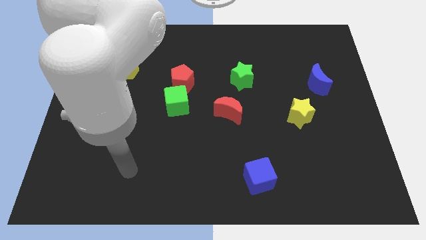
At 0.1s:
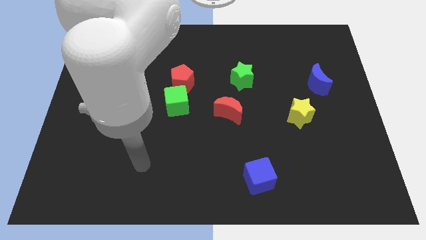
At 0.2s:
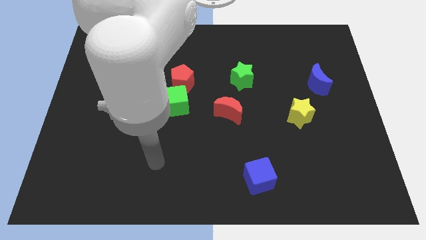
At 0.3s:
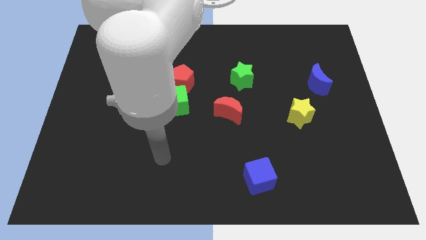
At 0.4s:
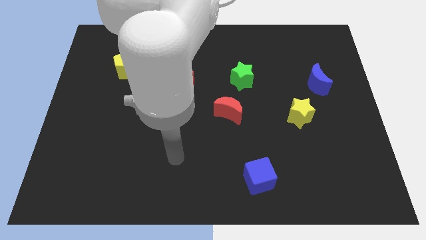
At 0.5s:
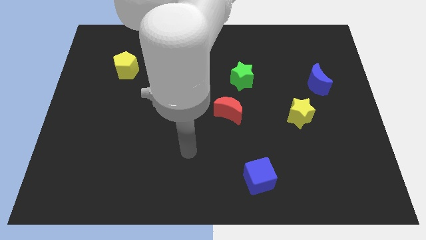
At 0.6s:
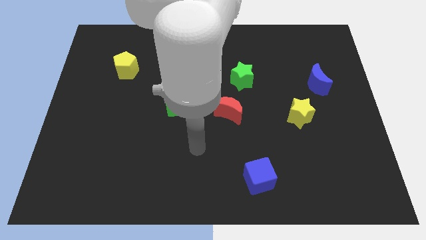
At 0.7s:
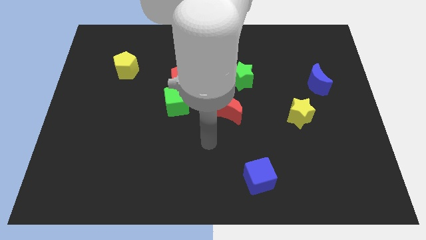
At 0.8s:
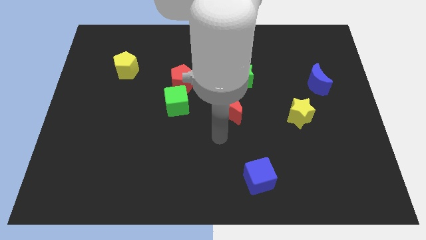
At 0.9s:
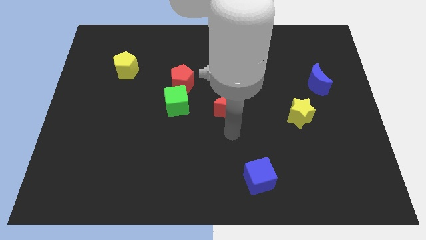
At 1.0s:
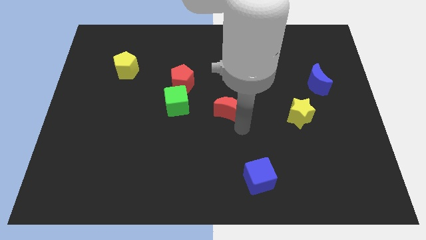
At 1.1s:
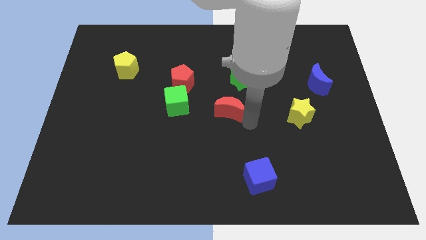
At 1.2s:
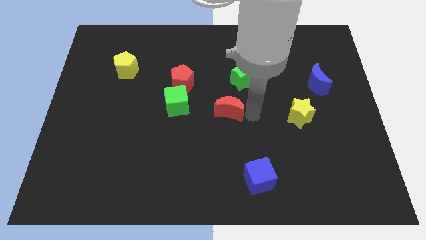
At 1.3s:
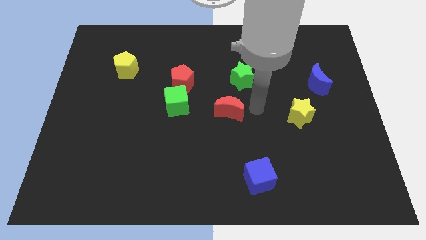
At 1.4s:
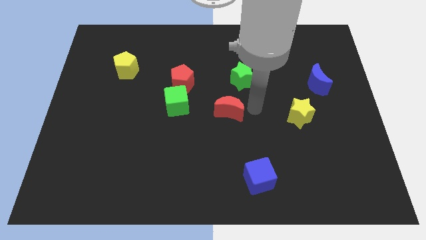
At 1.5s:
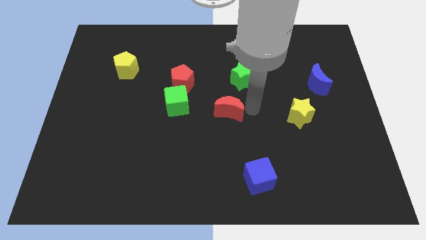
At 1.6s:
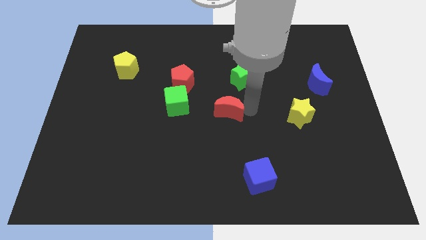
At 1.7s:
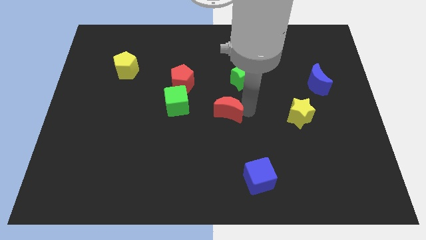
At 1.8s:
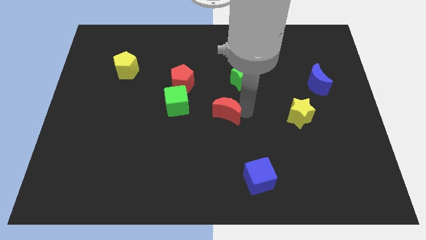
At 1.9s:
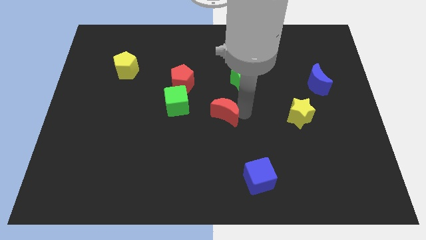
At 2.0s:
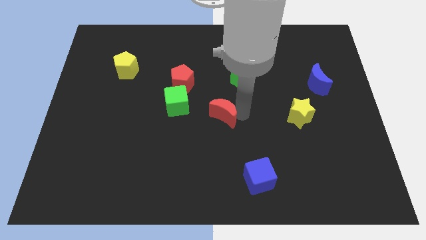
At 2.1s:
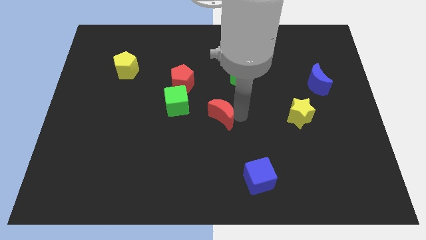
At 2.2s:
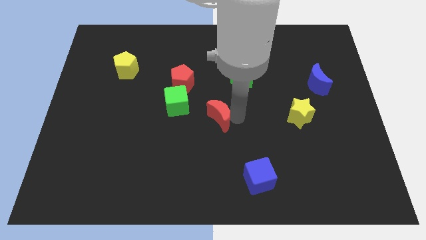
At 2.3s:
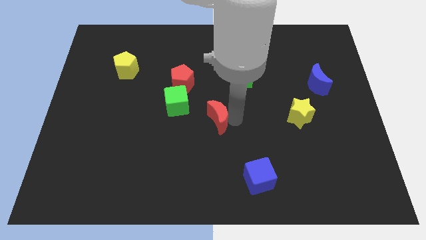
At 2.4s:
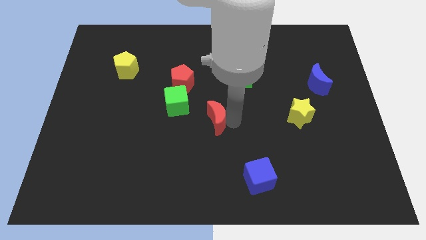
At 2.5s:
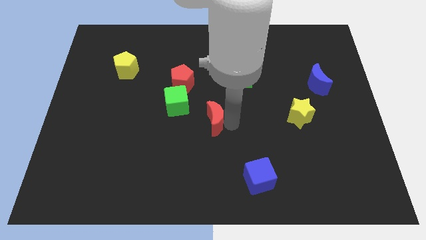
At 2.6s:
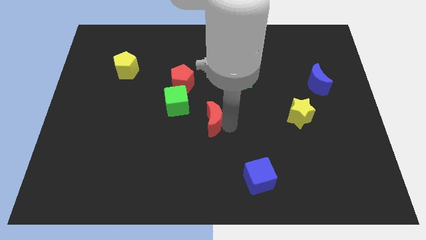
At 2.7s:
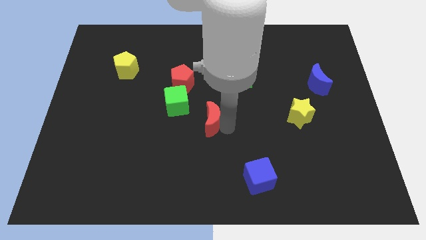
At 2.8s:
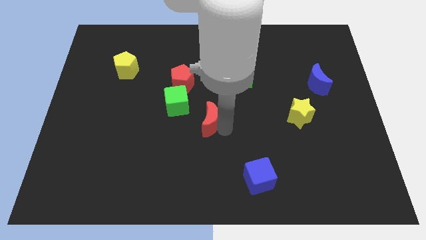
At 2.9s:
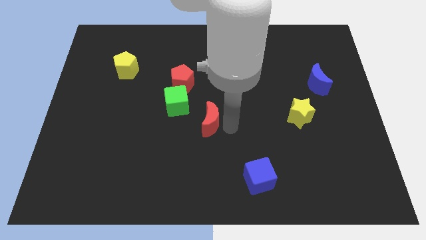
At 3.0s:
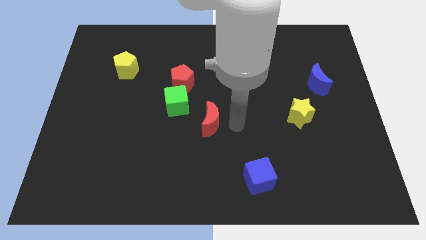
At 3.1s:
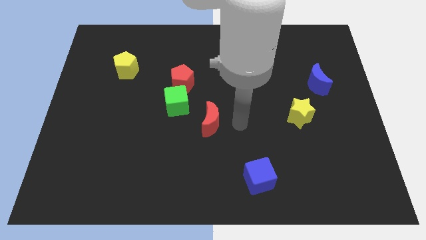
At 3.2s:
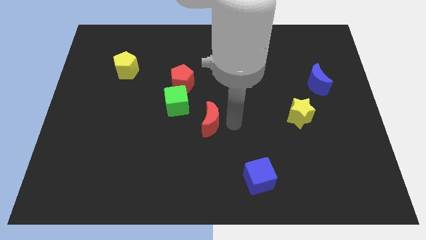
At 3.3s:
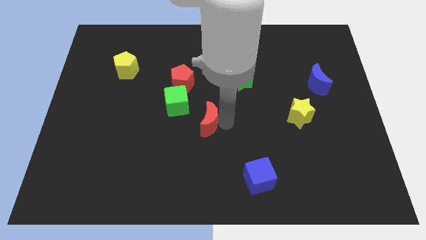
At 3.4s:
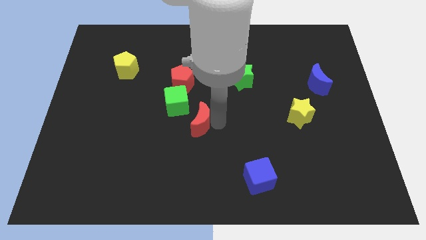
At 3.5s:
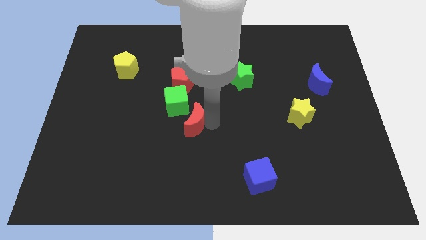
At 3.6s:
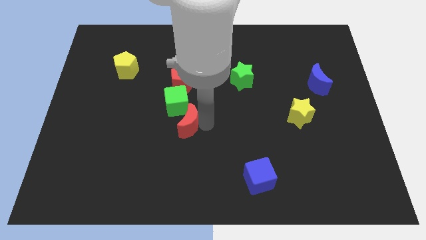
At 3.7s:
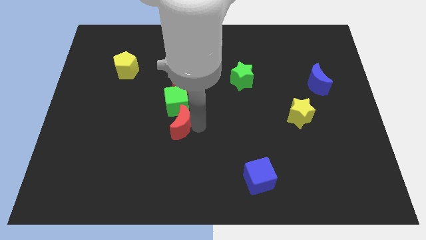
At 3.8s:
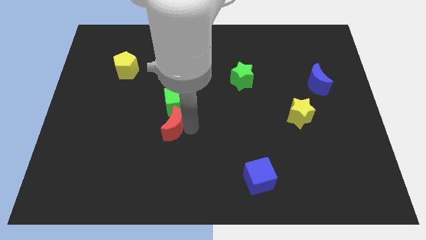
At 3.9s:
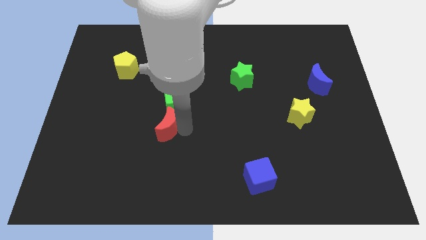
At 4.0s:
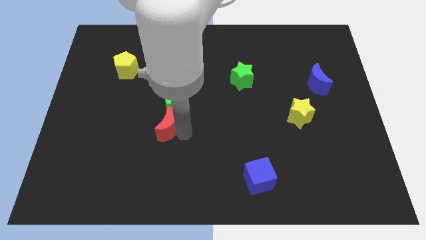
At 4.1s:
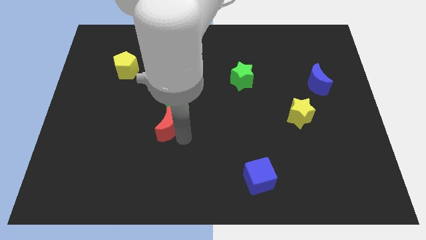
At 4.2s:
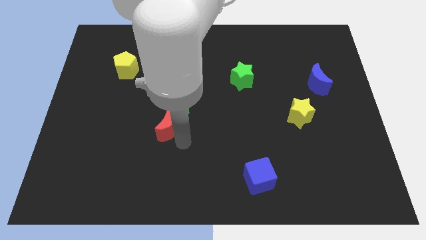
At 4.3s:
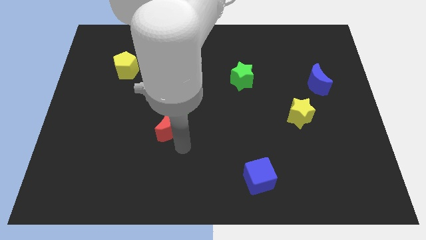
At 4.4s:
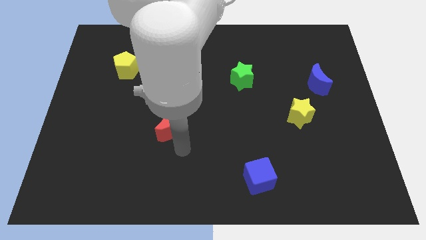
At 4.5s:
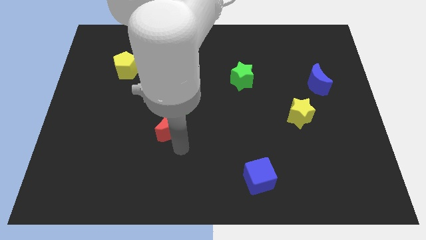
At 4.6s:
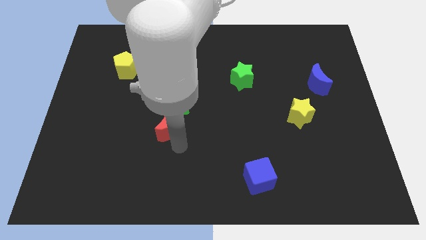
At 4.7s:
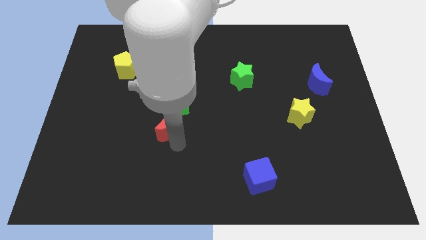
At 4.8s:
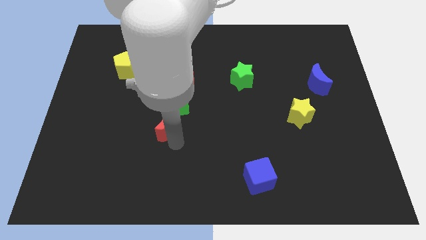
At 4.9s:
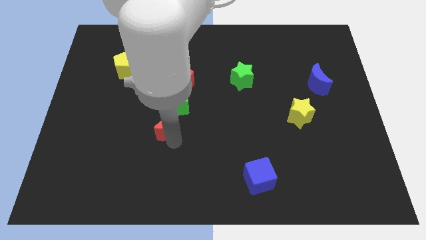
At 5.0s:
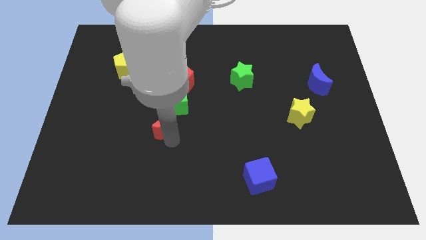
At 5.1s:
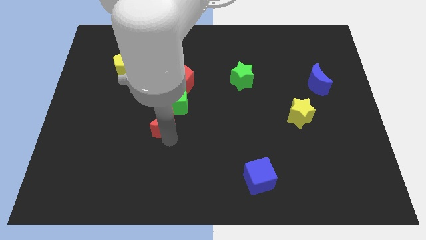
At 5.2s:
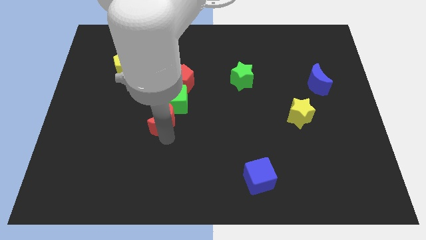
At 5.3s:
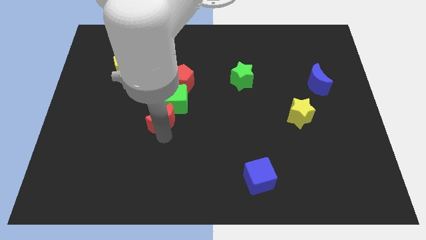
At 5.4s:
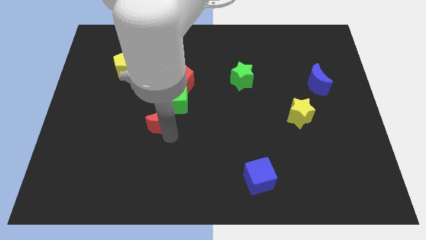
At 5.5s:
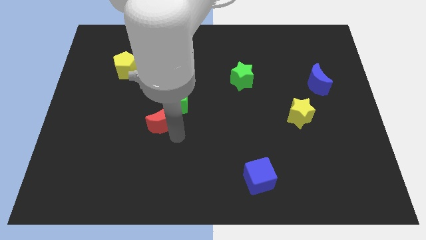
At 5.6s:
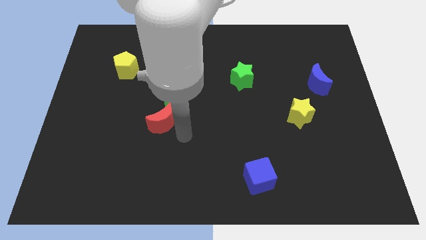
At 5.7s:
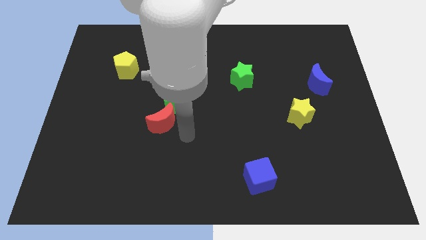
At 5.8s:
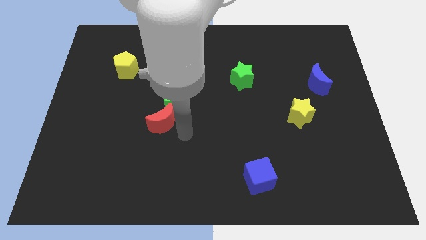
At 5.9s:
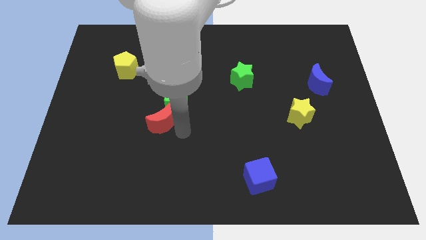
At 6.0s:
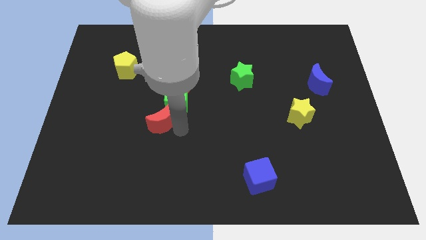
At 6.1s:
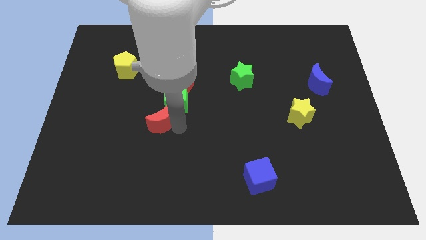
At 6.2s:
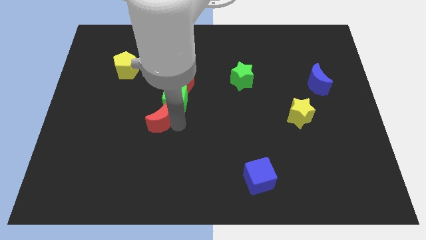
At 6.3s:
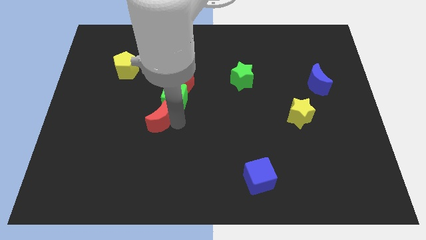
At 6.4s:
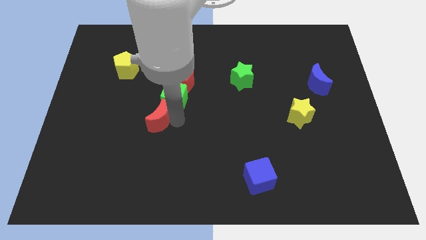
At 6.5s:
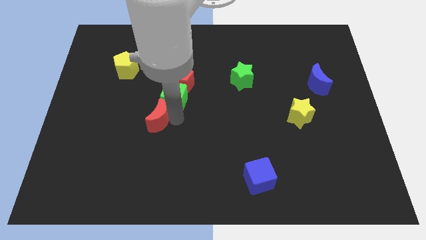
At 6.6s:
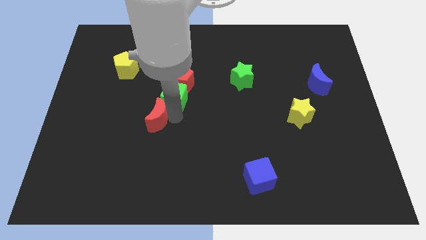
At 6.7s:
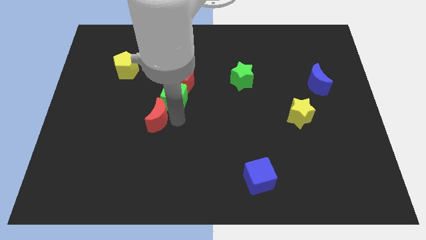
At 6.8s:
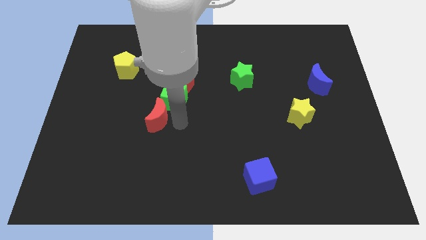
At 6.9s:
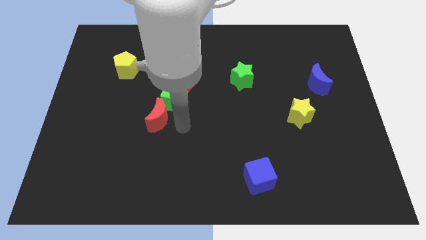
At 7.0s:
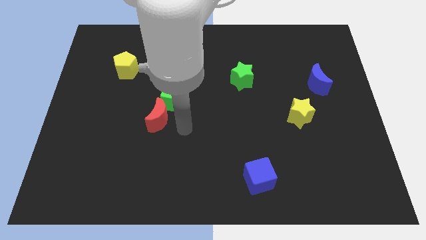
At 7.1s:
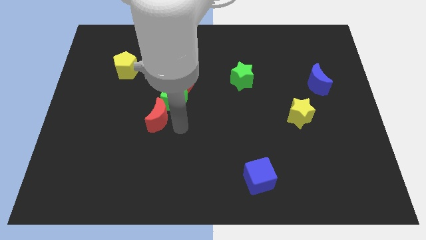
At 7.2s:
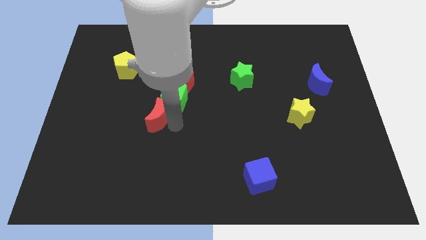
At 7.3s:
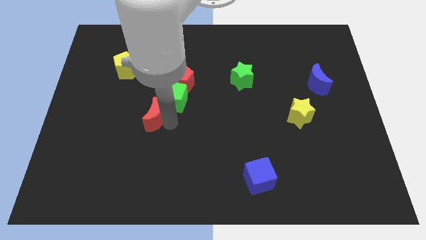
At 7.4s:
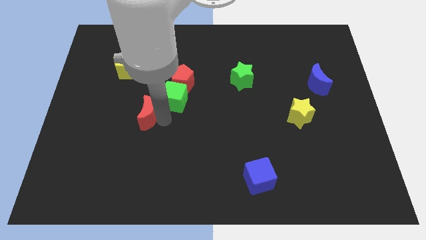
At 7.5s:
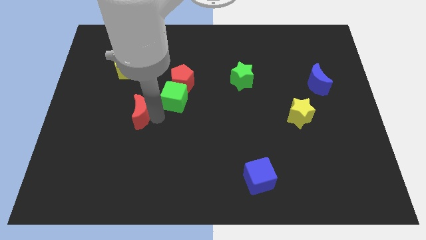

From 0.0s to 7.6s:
move the red moon to the left

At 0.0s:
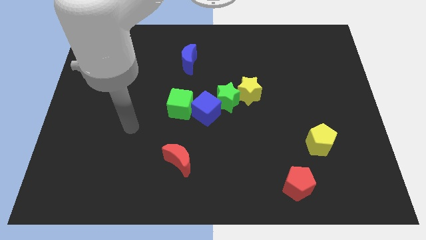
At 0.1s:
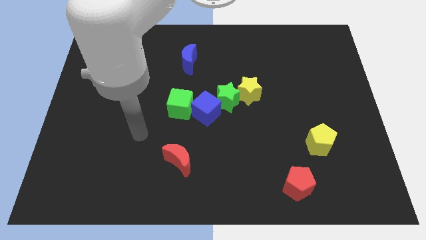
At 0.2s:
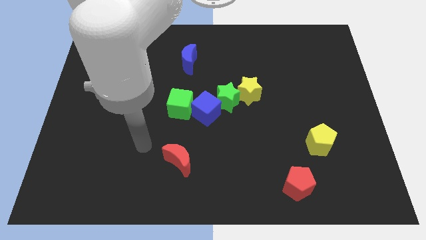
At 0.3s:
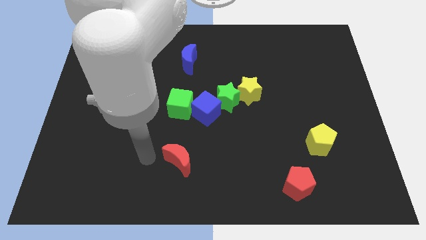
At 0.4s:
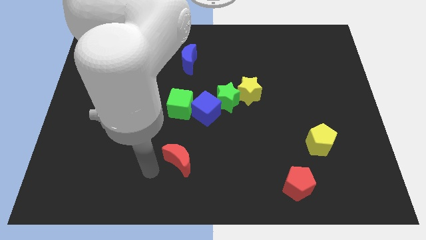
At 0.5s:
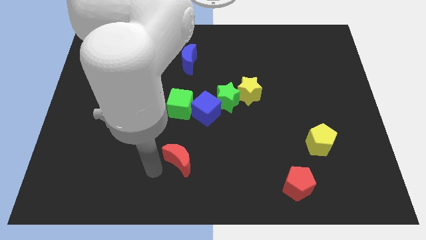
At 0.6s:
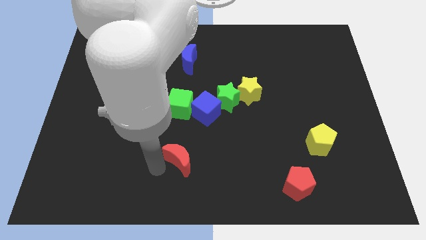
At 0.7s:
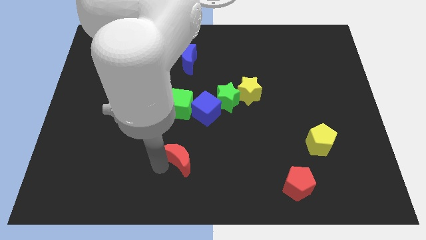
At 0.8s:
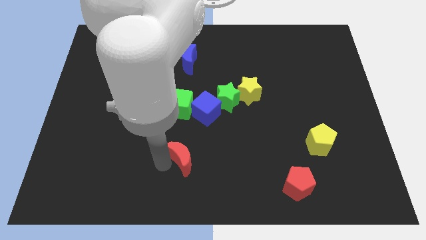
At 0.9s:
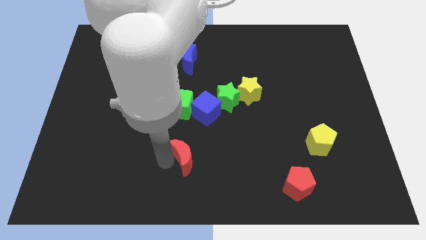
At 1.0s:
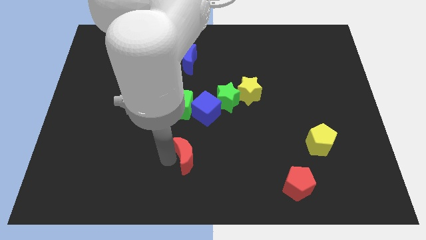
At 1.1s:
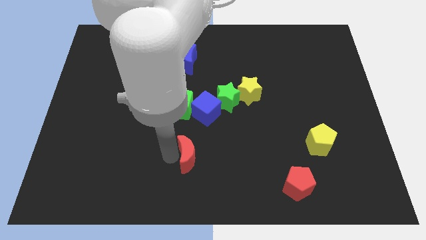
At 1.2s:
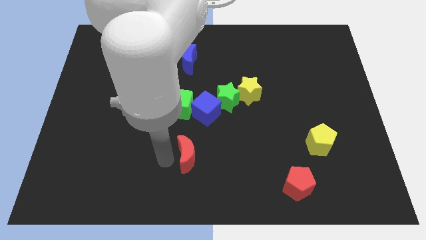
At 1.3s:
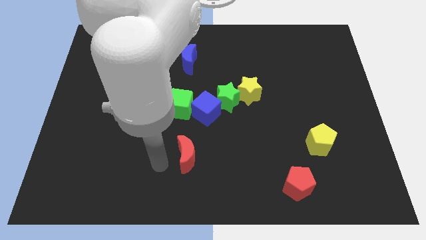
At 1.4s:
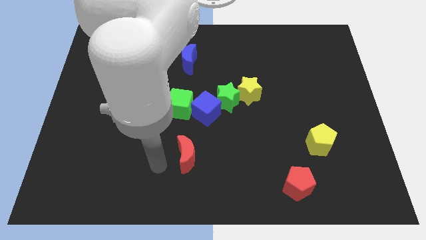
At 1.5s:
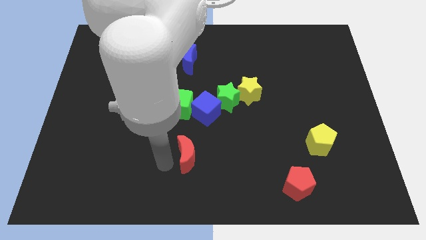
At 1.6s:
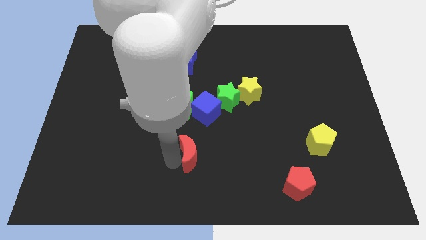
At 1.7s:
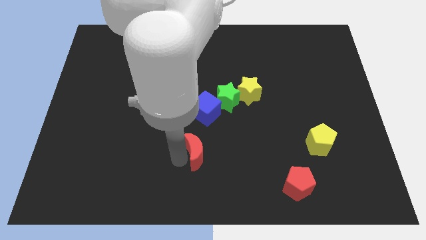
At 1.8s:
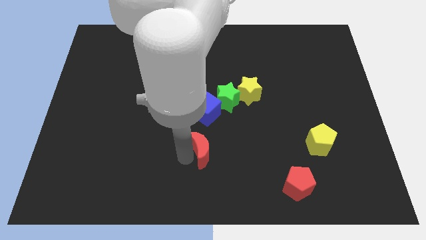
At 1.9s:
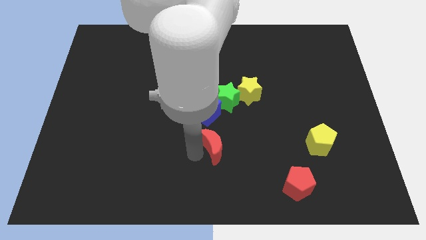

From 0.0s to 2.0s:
slide the red moon up and right diagonally a bit
